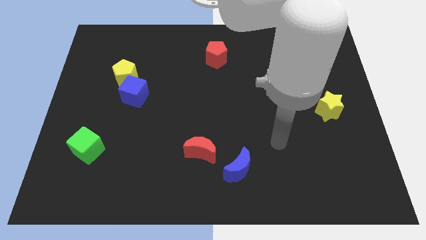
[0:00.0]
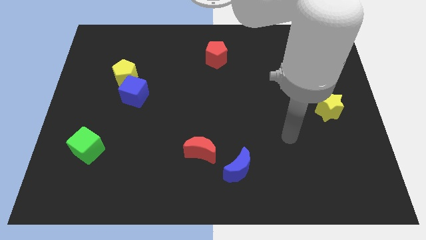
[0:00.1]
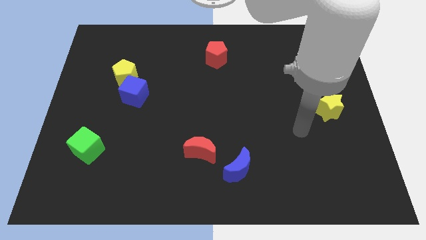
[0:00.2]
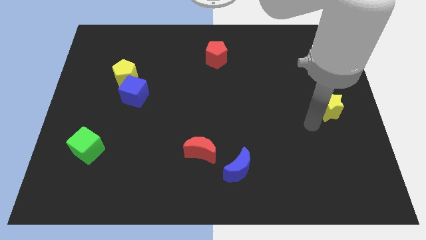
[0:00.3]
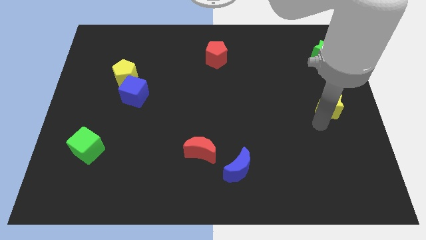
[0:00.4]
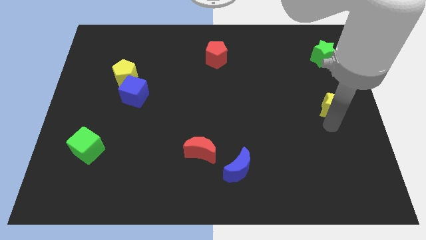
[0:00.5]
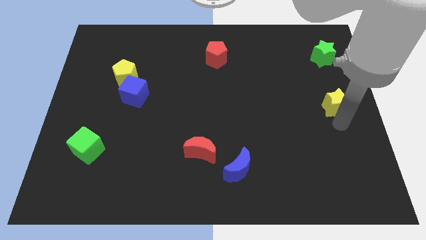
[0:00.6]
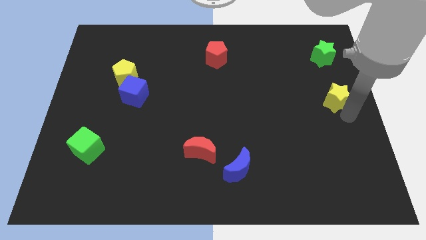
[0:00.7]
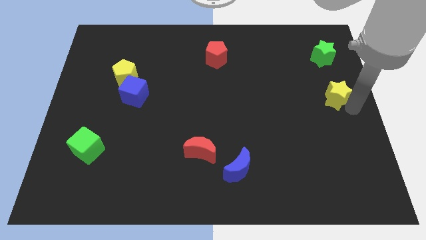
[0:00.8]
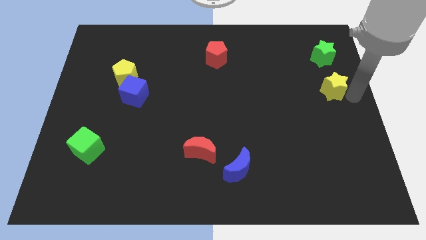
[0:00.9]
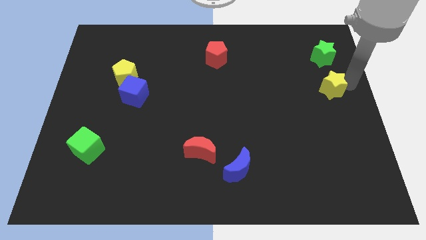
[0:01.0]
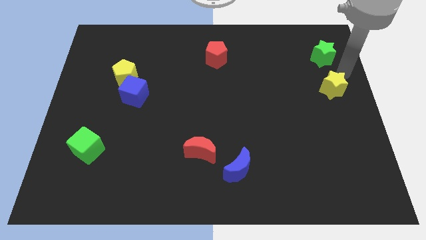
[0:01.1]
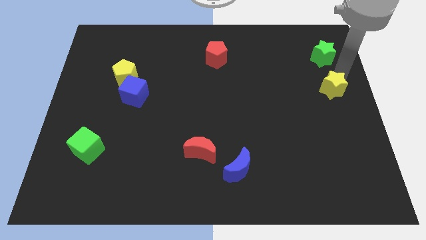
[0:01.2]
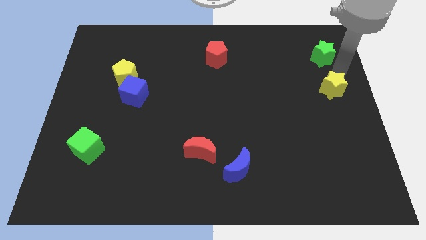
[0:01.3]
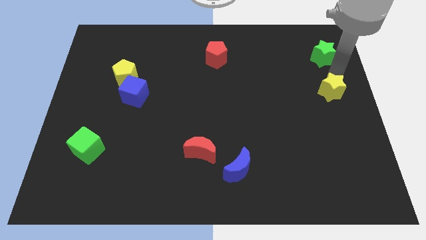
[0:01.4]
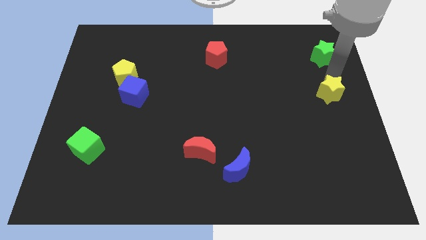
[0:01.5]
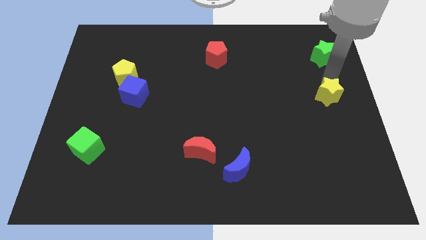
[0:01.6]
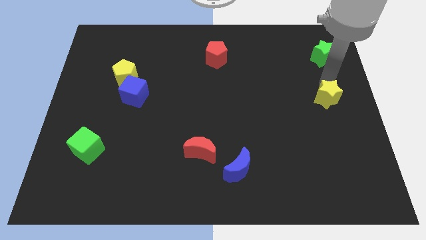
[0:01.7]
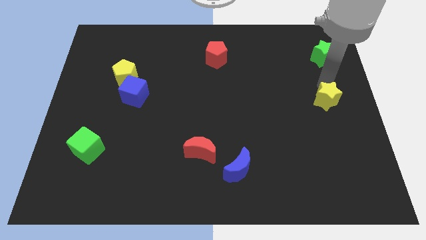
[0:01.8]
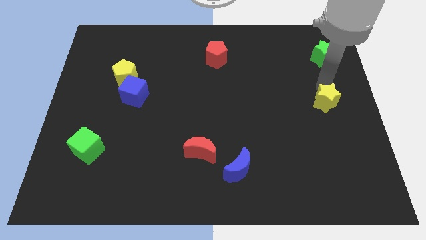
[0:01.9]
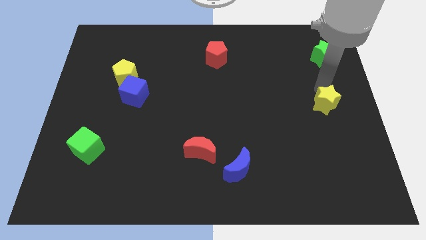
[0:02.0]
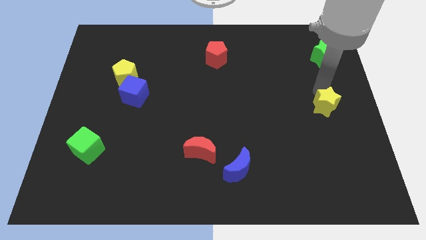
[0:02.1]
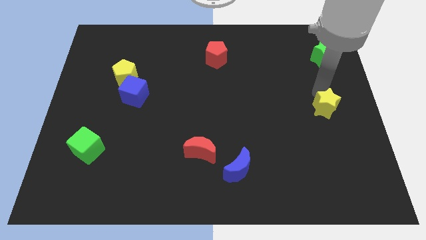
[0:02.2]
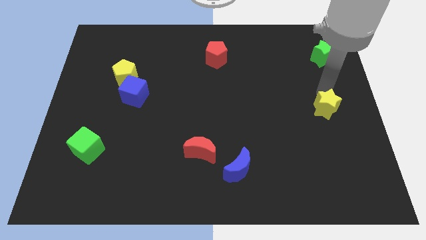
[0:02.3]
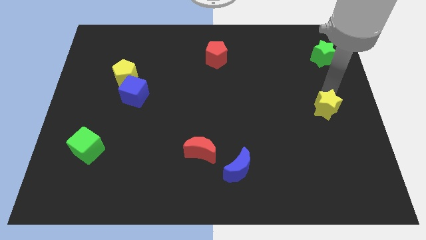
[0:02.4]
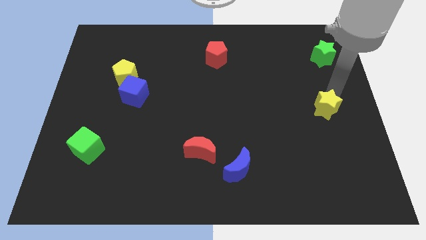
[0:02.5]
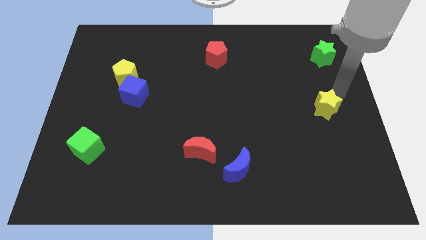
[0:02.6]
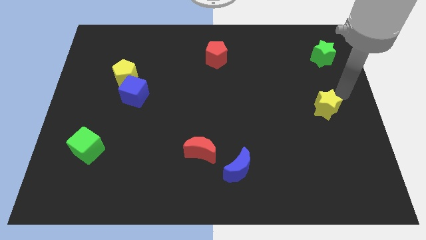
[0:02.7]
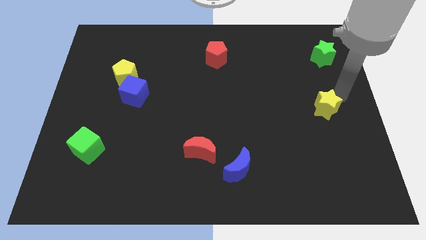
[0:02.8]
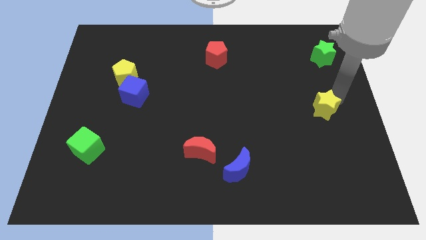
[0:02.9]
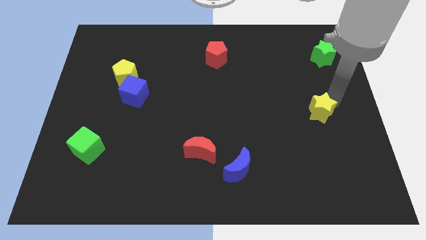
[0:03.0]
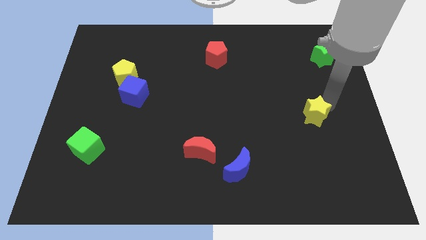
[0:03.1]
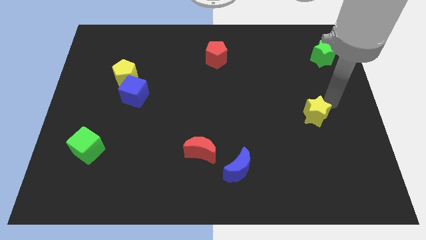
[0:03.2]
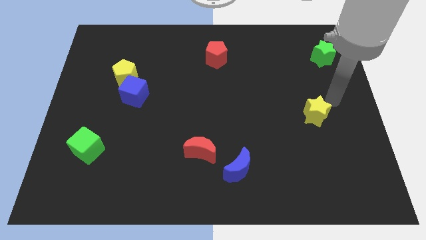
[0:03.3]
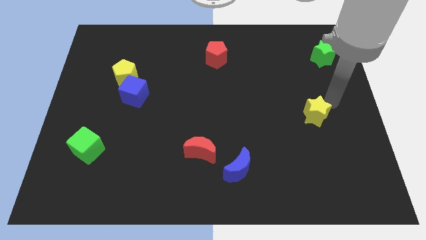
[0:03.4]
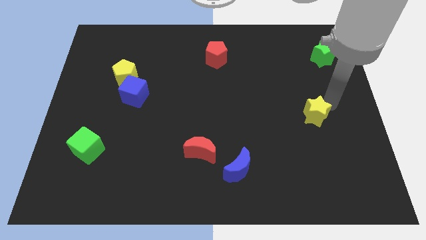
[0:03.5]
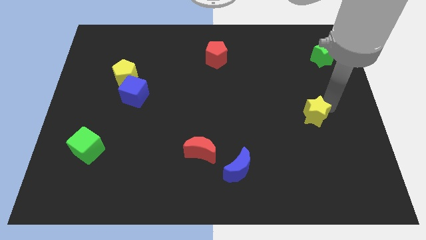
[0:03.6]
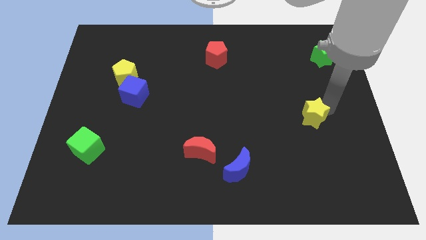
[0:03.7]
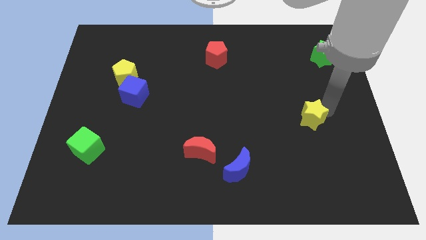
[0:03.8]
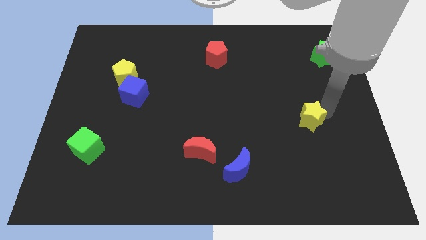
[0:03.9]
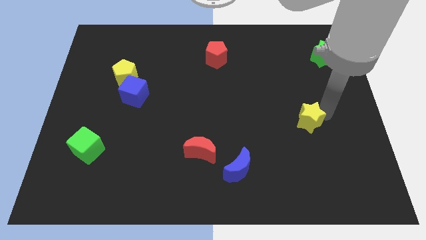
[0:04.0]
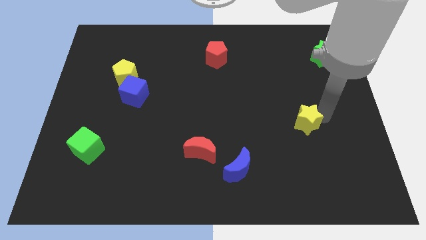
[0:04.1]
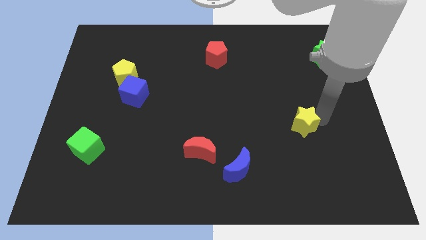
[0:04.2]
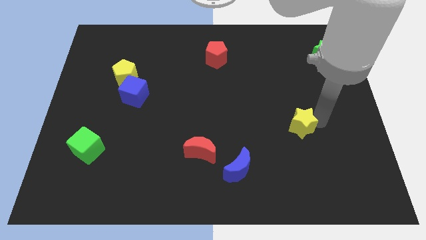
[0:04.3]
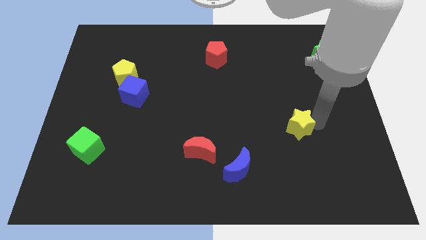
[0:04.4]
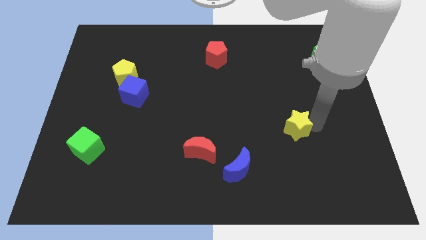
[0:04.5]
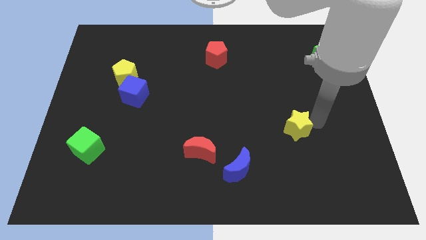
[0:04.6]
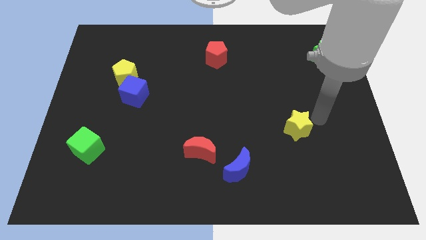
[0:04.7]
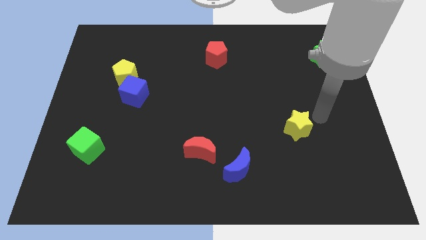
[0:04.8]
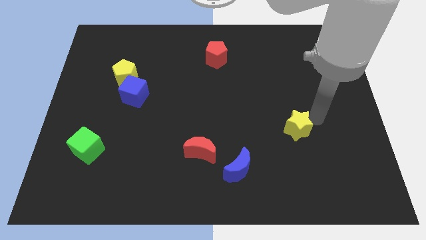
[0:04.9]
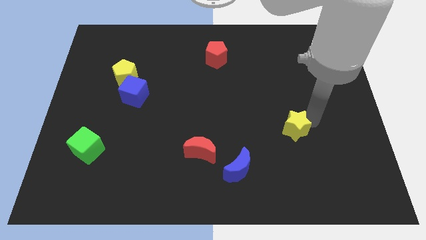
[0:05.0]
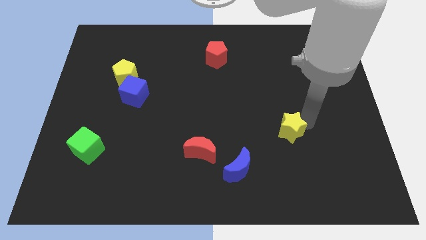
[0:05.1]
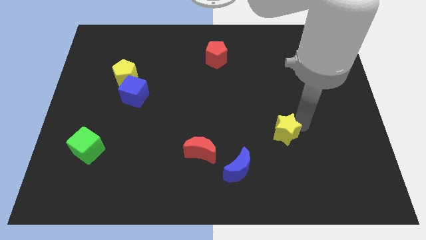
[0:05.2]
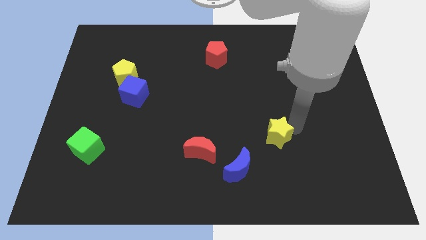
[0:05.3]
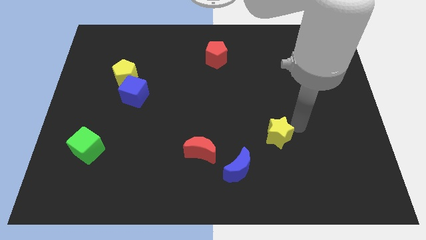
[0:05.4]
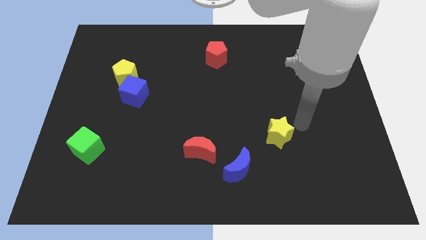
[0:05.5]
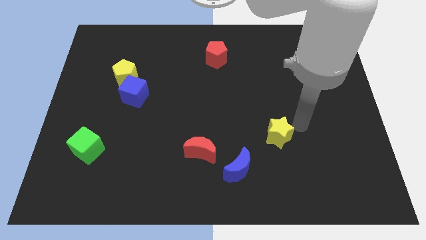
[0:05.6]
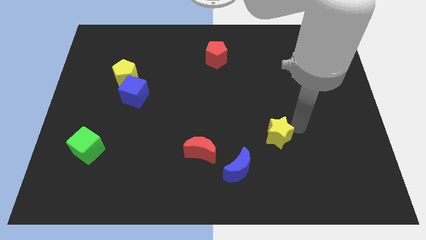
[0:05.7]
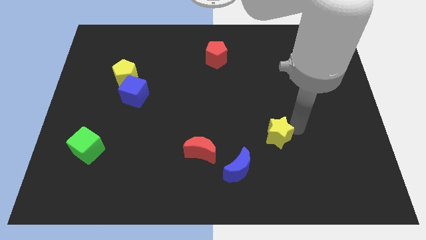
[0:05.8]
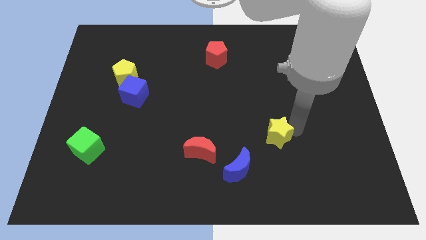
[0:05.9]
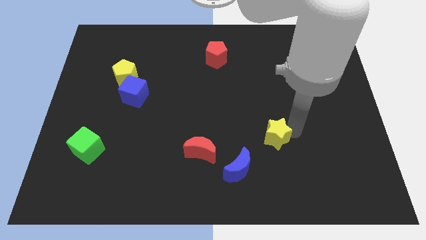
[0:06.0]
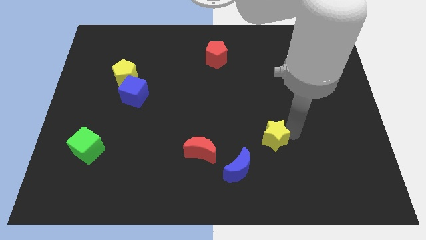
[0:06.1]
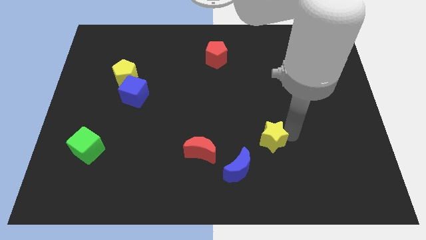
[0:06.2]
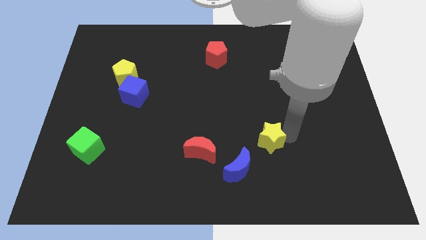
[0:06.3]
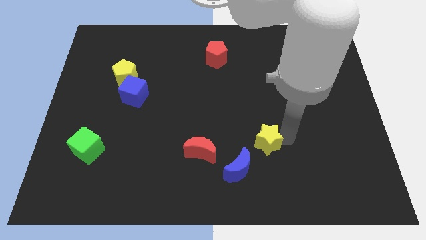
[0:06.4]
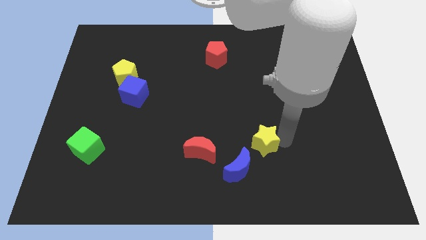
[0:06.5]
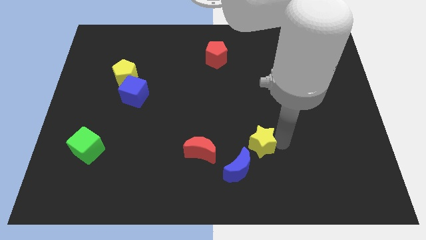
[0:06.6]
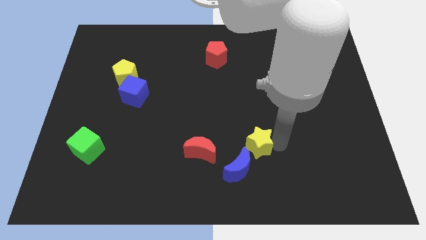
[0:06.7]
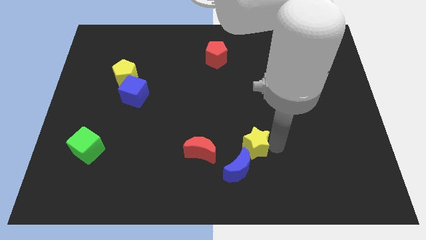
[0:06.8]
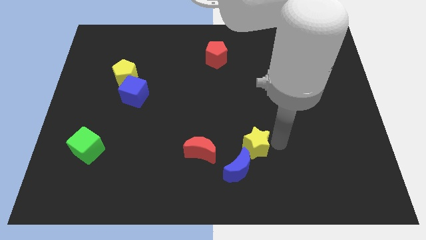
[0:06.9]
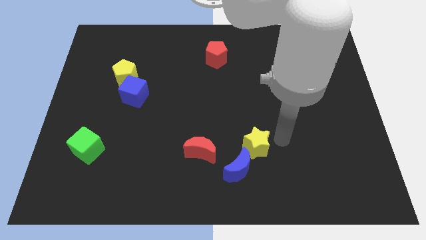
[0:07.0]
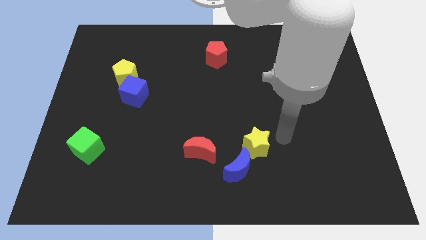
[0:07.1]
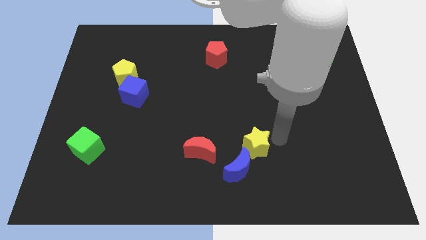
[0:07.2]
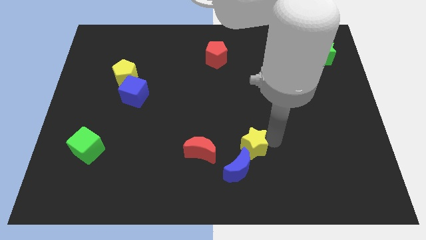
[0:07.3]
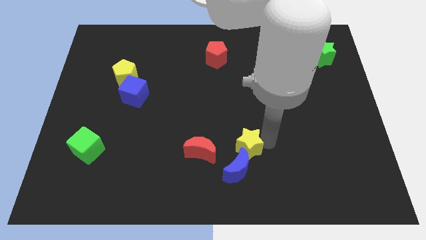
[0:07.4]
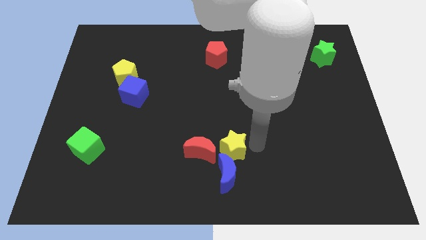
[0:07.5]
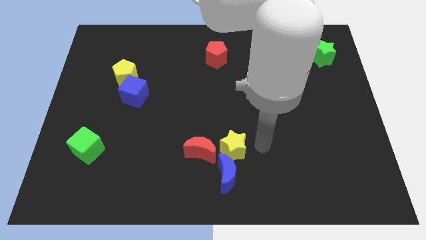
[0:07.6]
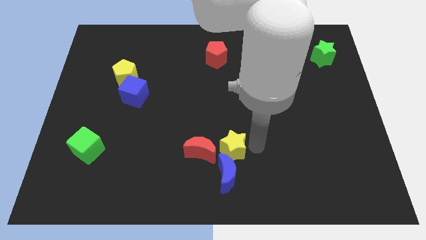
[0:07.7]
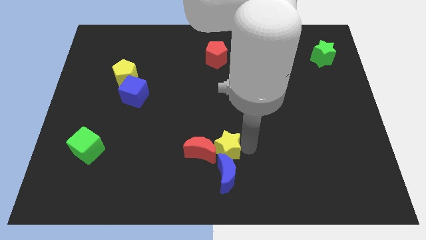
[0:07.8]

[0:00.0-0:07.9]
slide the yellow star towards the red moon
